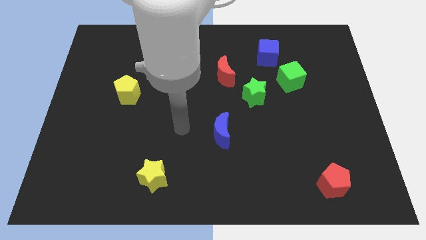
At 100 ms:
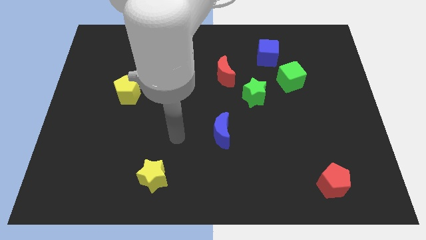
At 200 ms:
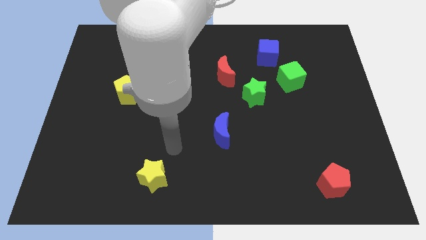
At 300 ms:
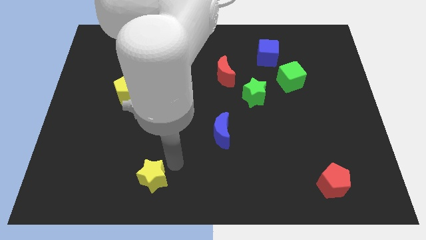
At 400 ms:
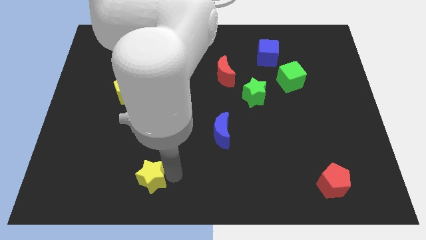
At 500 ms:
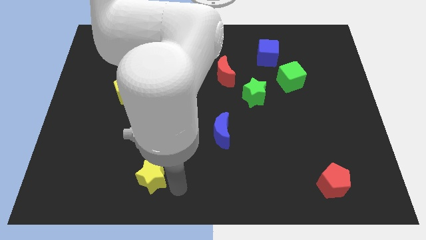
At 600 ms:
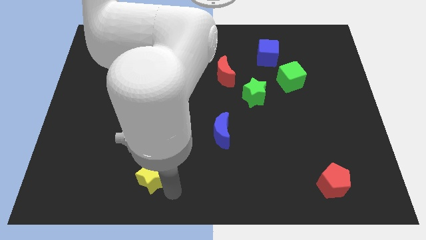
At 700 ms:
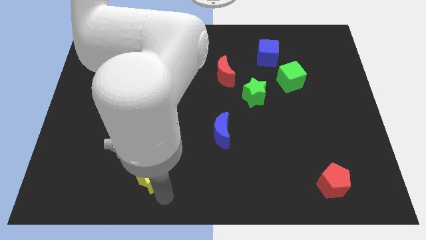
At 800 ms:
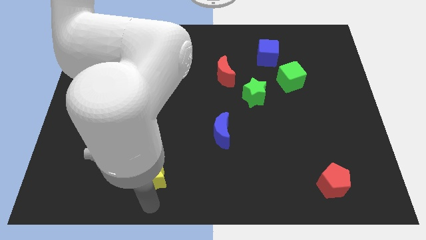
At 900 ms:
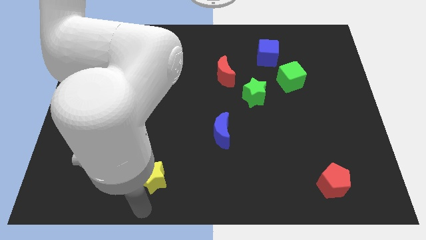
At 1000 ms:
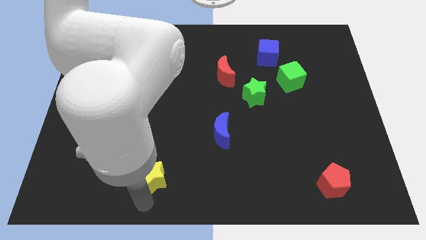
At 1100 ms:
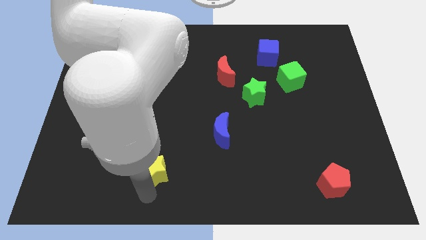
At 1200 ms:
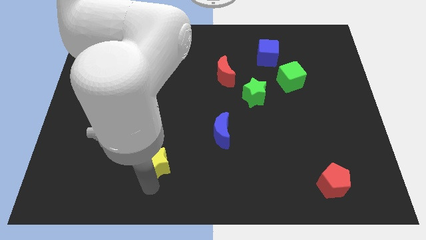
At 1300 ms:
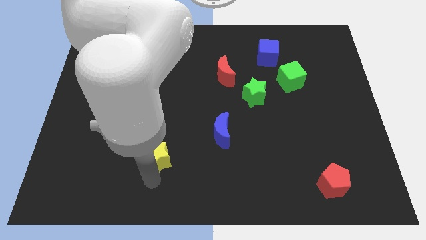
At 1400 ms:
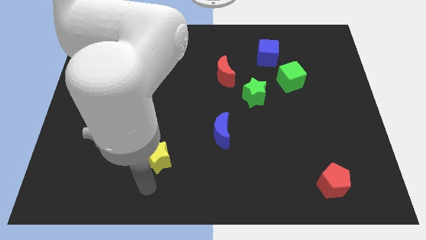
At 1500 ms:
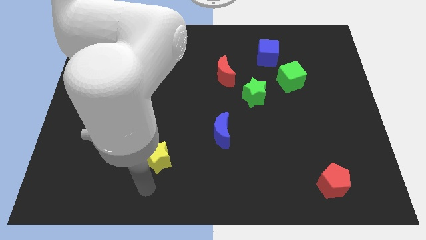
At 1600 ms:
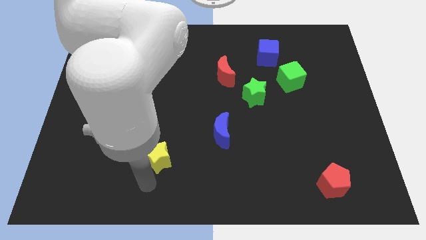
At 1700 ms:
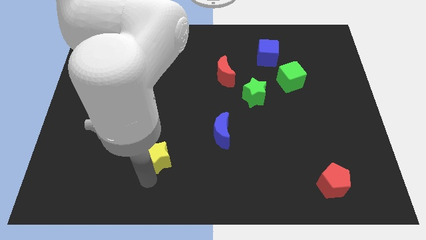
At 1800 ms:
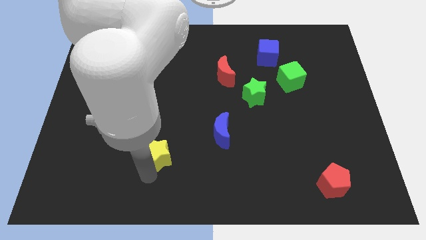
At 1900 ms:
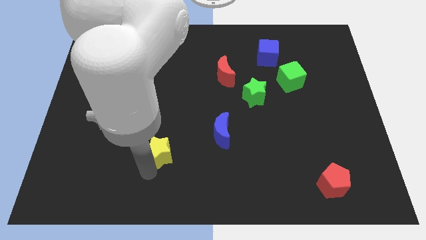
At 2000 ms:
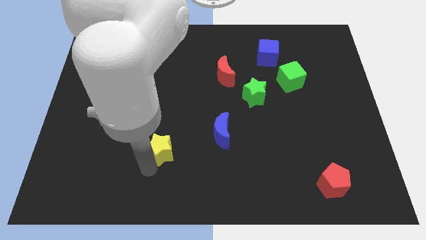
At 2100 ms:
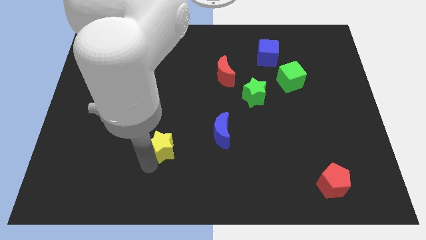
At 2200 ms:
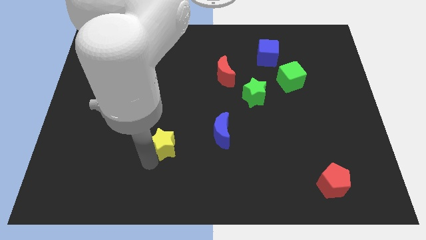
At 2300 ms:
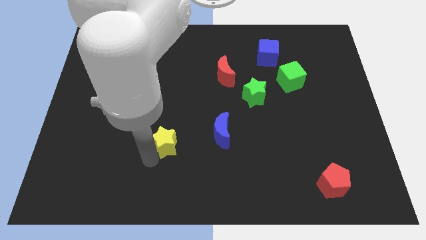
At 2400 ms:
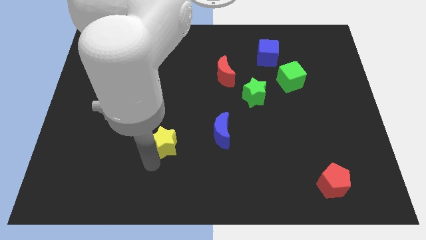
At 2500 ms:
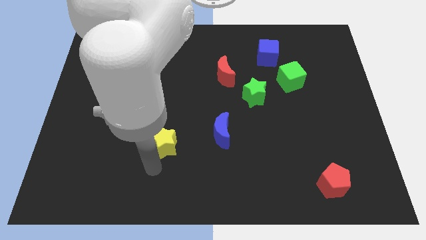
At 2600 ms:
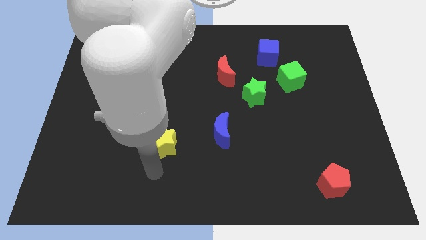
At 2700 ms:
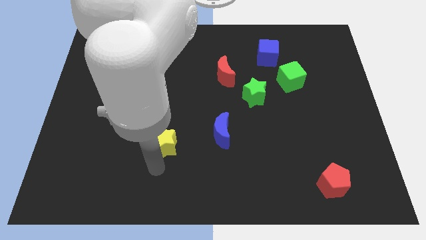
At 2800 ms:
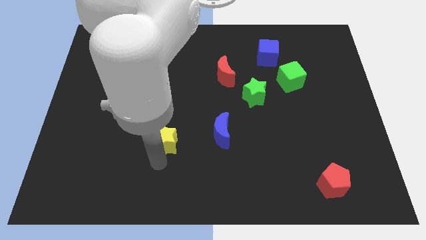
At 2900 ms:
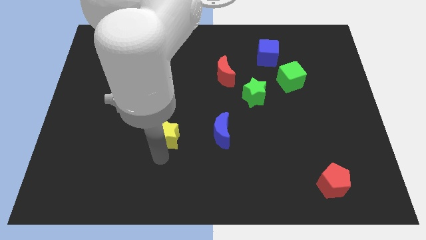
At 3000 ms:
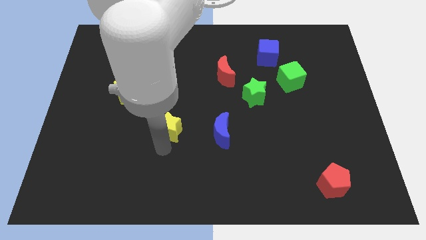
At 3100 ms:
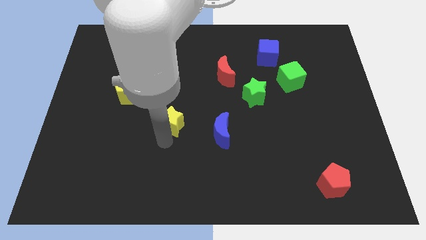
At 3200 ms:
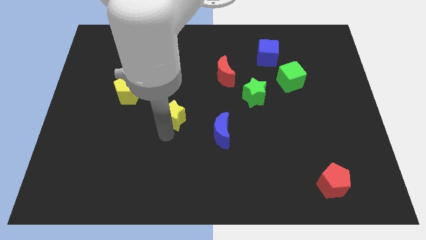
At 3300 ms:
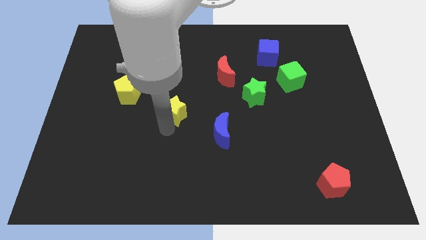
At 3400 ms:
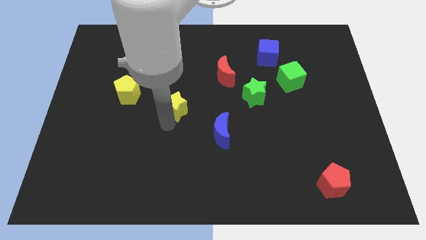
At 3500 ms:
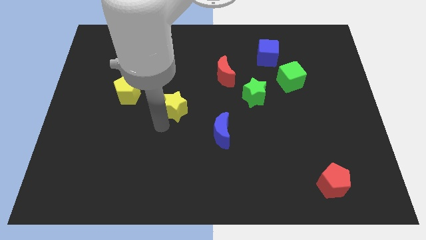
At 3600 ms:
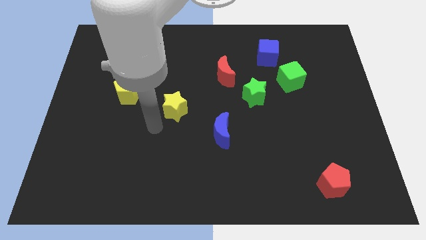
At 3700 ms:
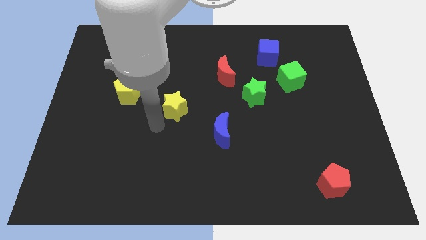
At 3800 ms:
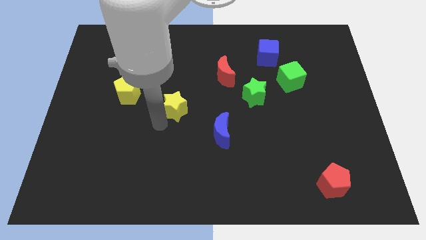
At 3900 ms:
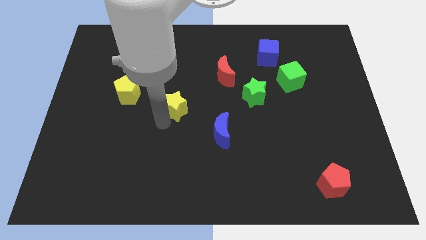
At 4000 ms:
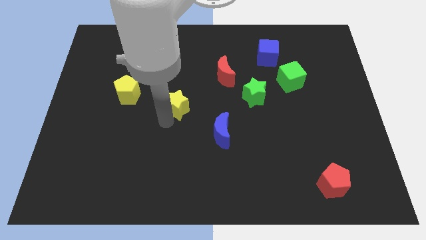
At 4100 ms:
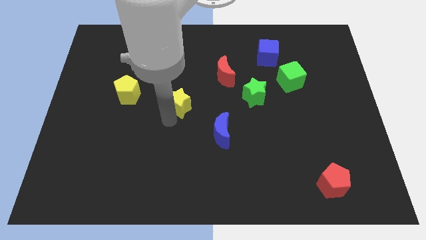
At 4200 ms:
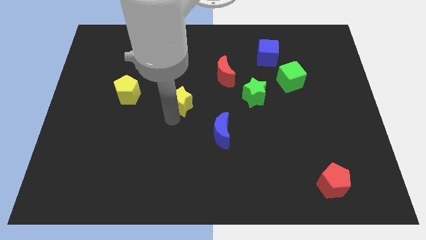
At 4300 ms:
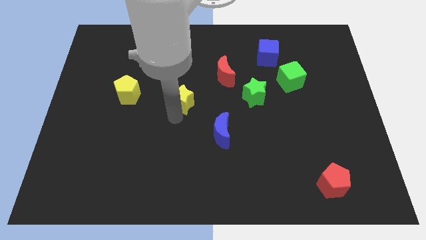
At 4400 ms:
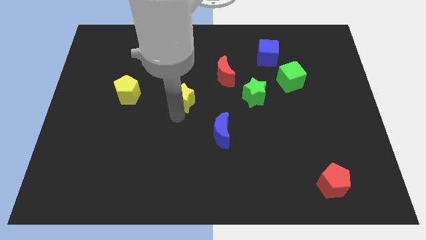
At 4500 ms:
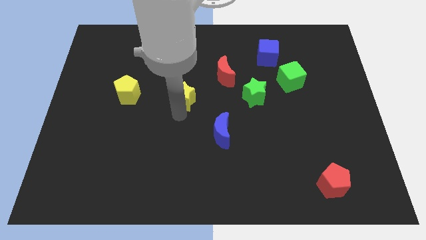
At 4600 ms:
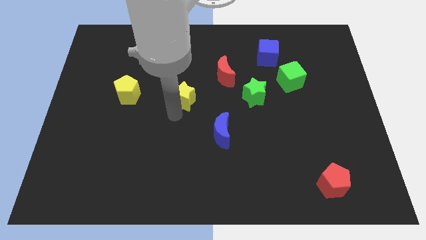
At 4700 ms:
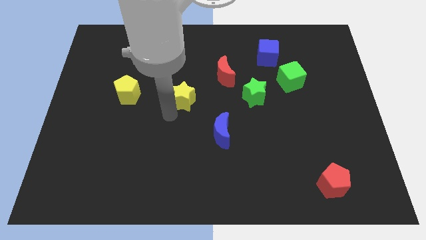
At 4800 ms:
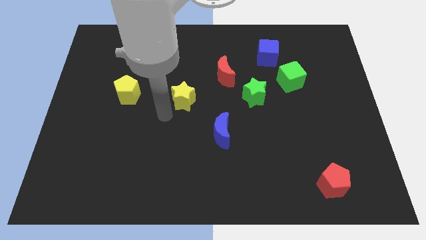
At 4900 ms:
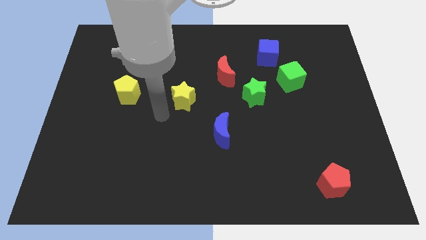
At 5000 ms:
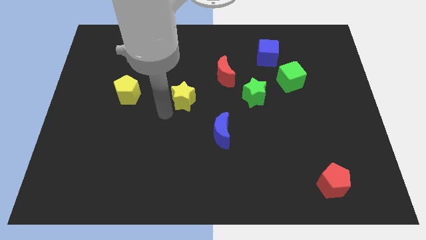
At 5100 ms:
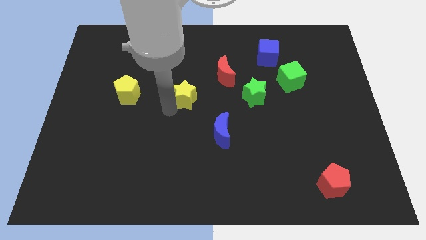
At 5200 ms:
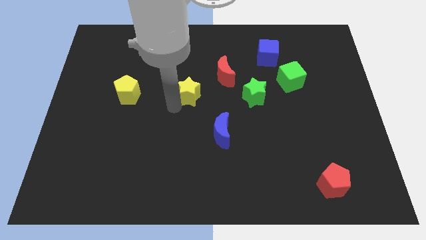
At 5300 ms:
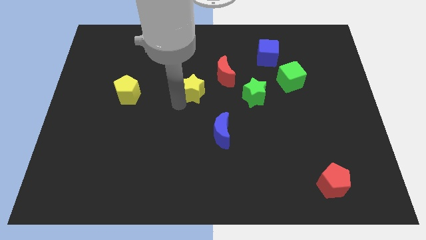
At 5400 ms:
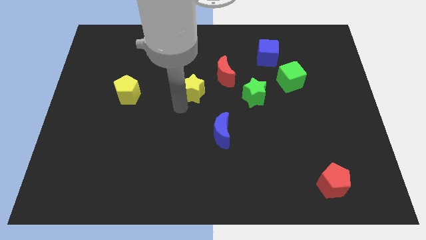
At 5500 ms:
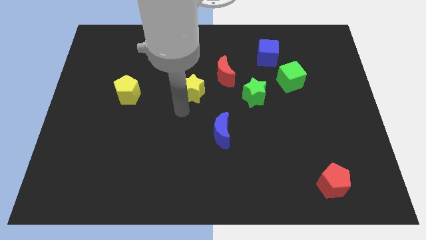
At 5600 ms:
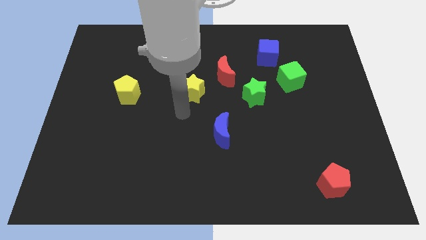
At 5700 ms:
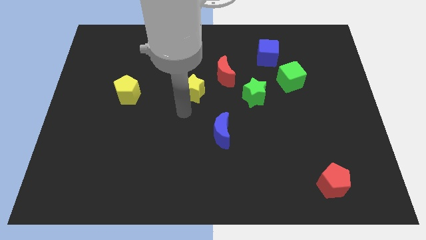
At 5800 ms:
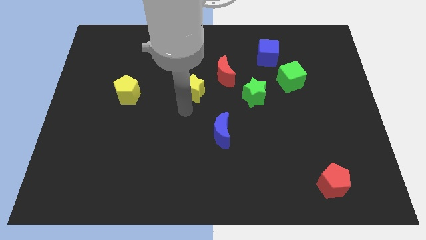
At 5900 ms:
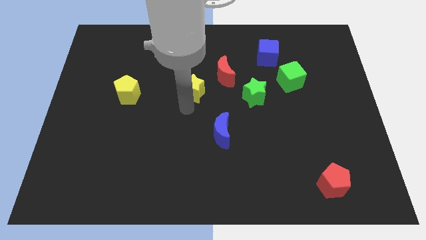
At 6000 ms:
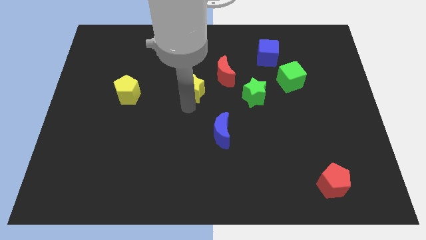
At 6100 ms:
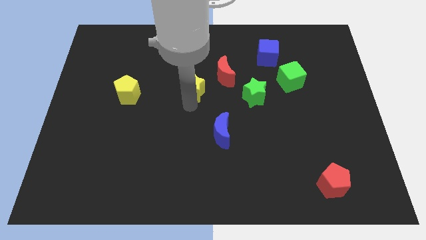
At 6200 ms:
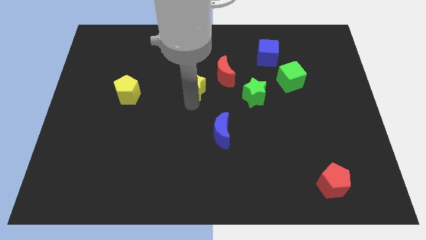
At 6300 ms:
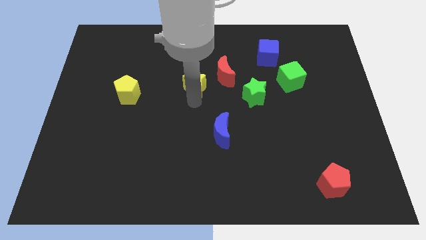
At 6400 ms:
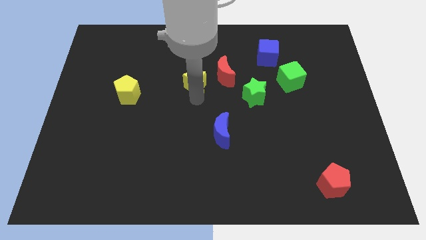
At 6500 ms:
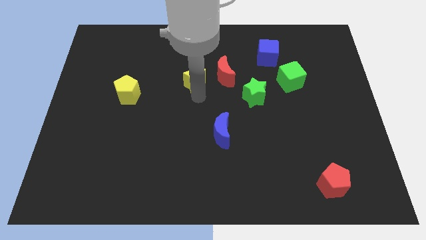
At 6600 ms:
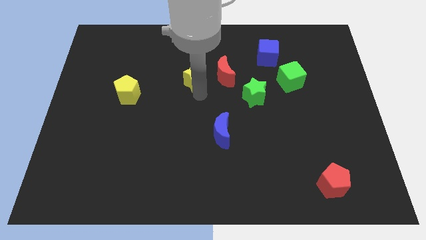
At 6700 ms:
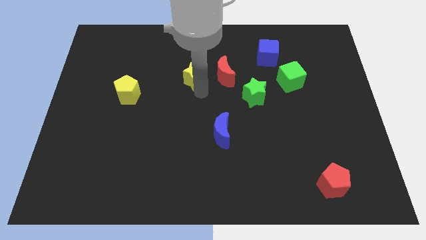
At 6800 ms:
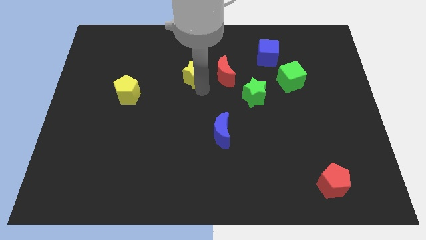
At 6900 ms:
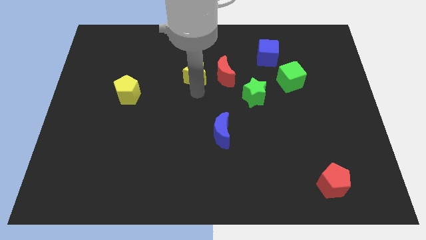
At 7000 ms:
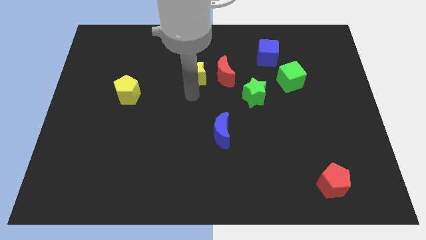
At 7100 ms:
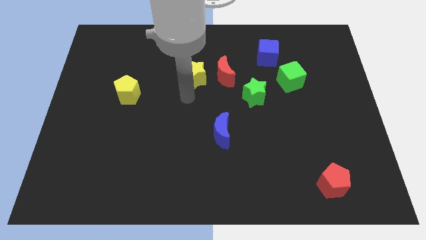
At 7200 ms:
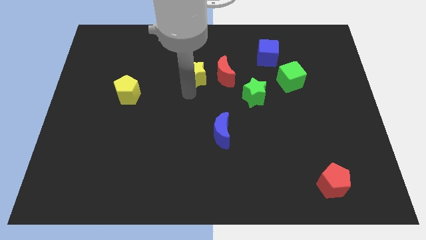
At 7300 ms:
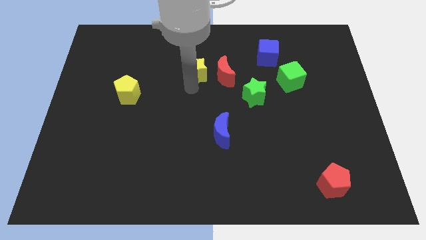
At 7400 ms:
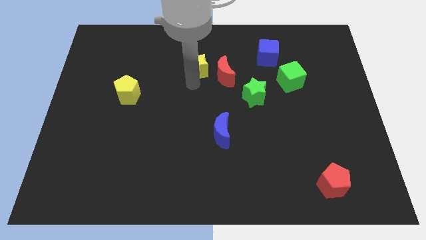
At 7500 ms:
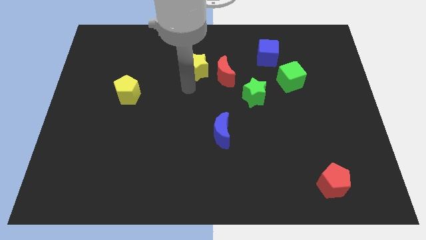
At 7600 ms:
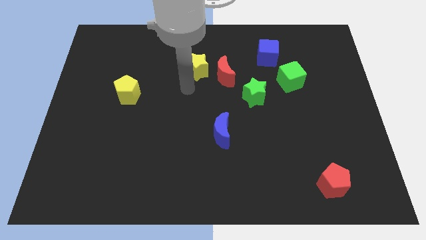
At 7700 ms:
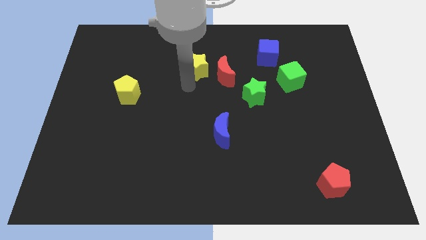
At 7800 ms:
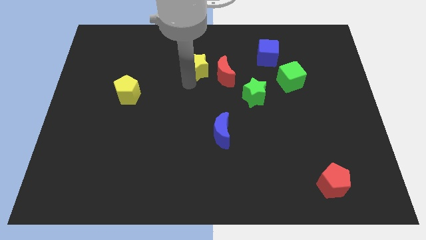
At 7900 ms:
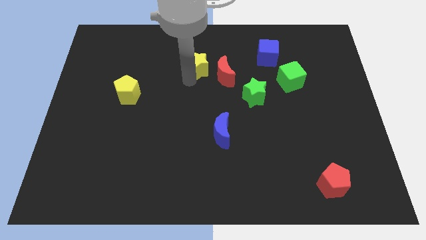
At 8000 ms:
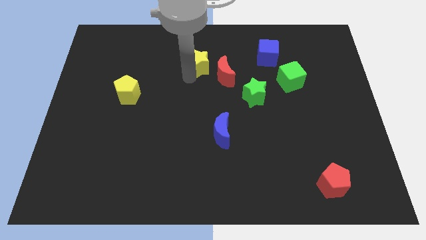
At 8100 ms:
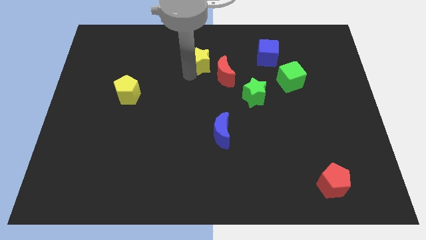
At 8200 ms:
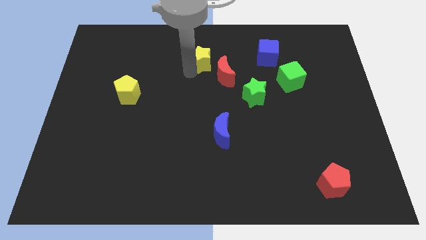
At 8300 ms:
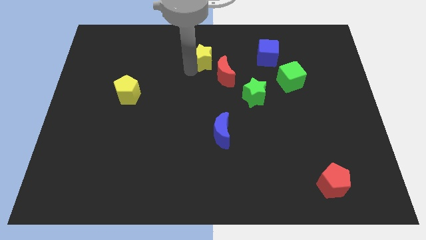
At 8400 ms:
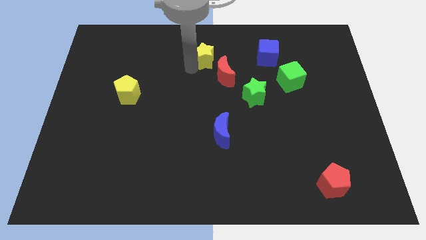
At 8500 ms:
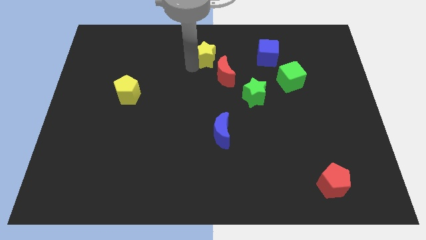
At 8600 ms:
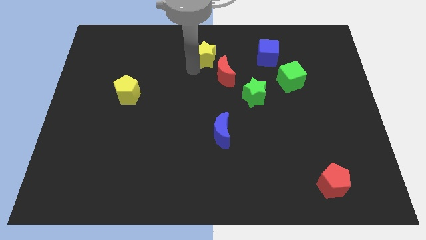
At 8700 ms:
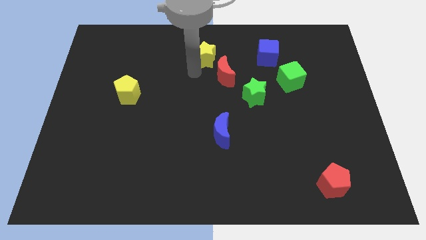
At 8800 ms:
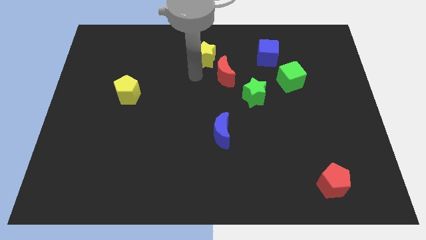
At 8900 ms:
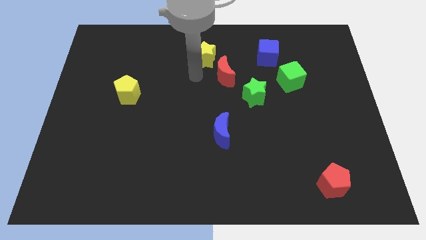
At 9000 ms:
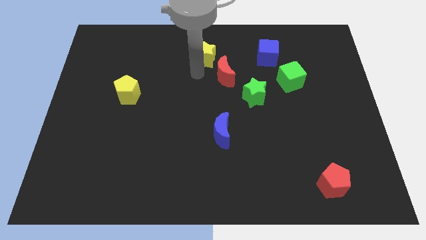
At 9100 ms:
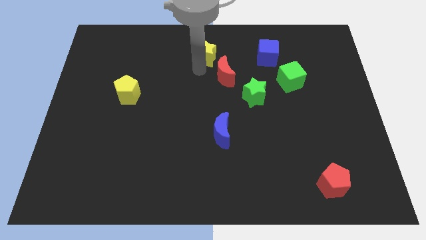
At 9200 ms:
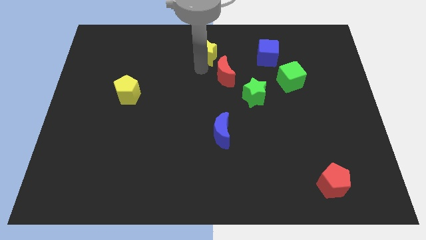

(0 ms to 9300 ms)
push the yellow star to the top side
